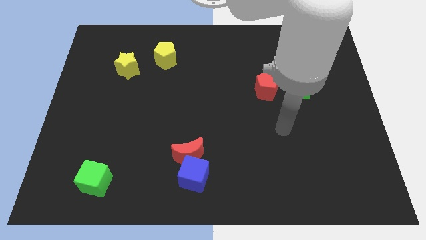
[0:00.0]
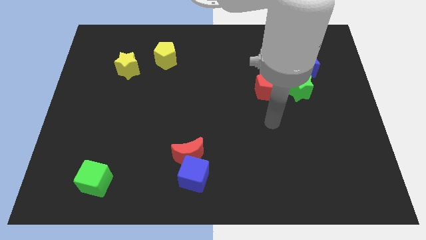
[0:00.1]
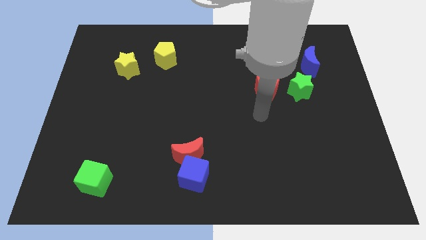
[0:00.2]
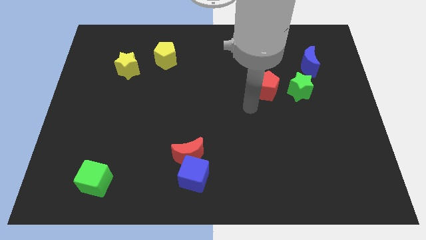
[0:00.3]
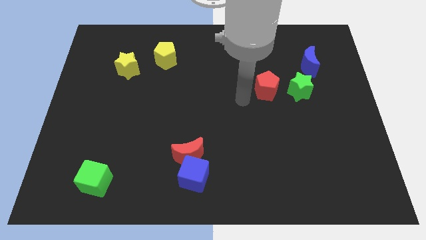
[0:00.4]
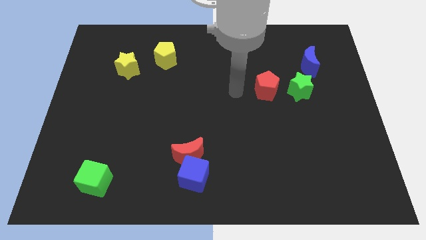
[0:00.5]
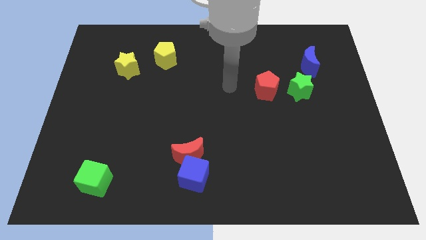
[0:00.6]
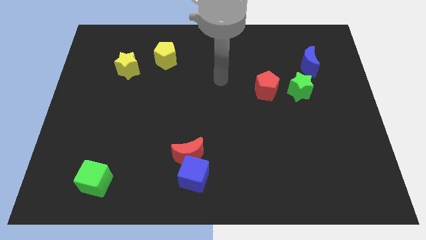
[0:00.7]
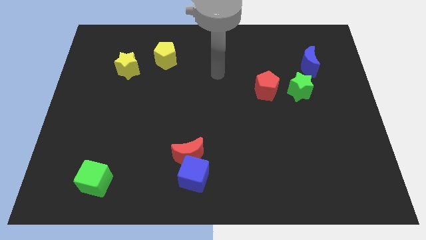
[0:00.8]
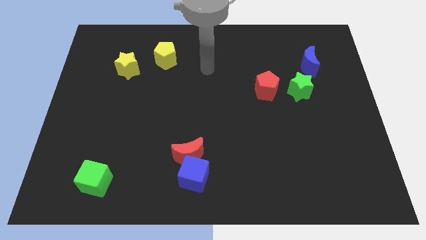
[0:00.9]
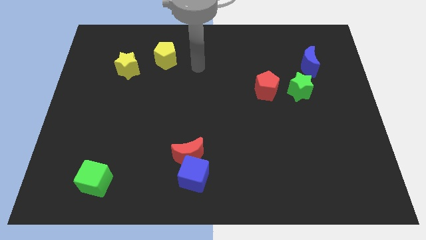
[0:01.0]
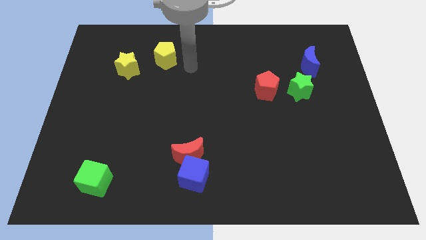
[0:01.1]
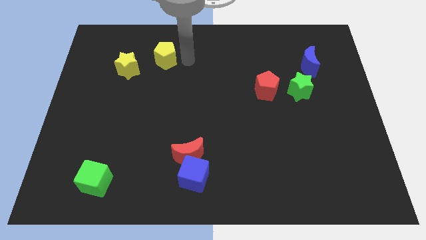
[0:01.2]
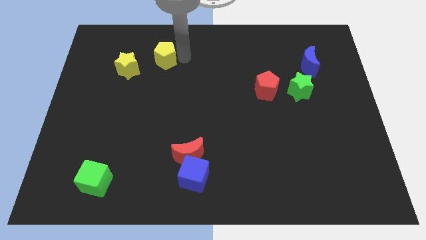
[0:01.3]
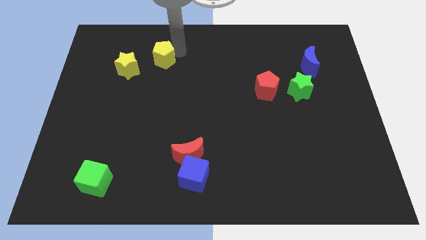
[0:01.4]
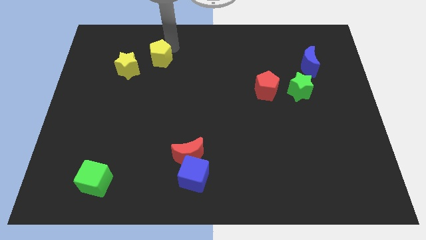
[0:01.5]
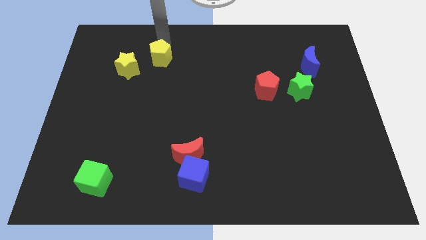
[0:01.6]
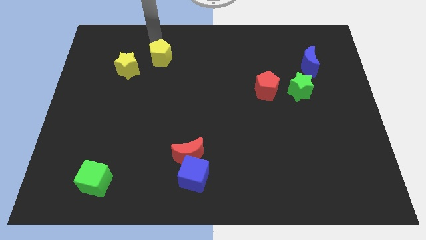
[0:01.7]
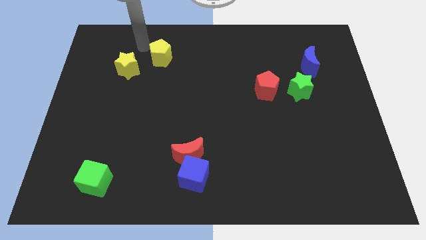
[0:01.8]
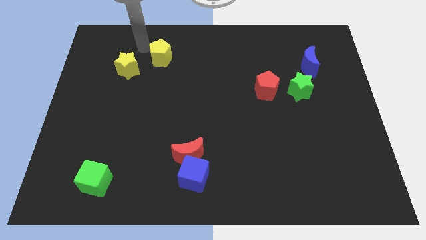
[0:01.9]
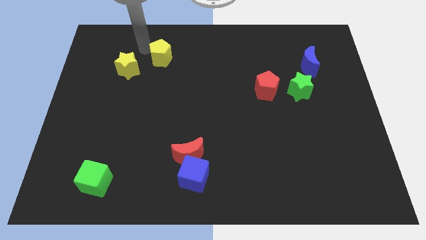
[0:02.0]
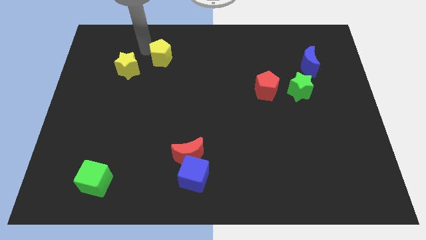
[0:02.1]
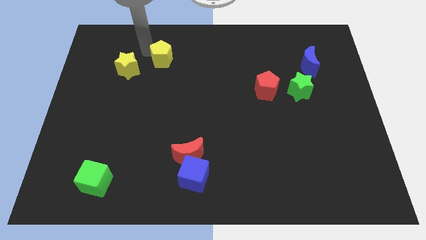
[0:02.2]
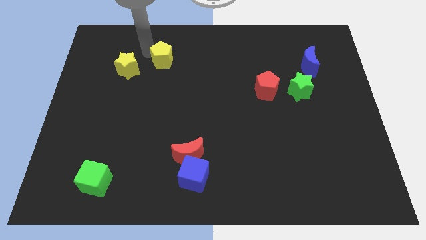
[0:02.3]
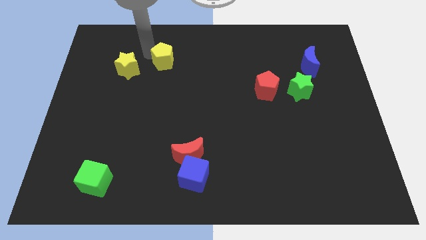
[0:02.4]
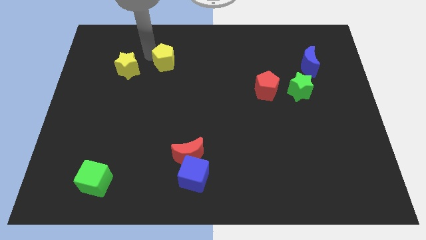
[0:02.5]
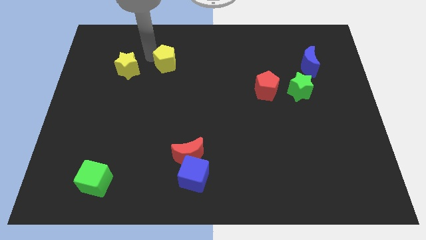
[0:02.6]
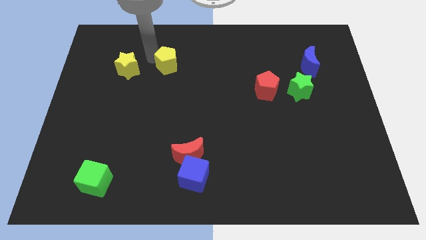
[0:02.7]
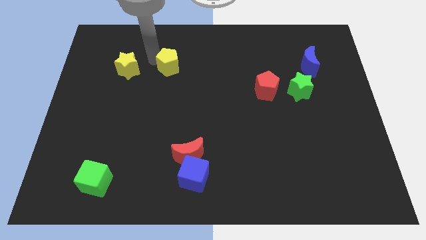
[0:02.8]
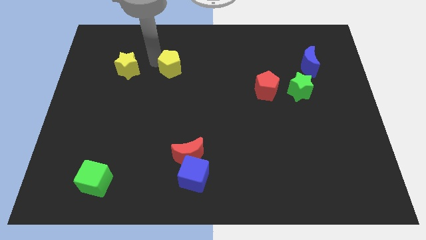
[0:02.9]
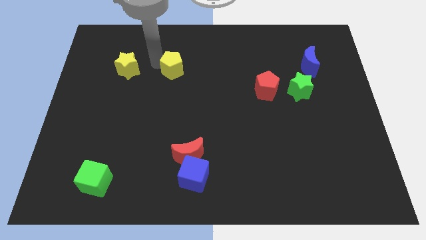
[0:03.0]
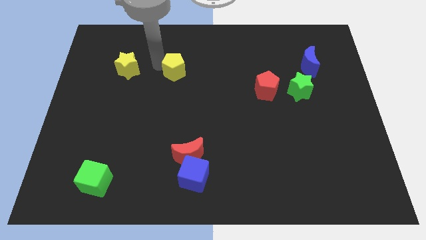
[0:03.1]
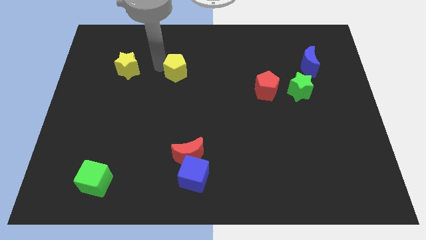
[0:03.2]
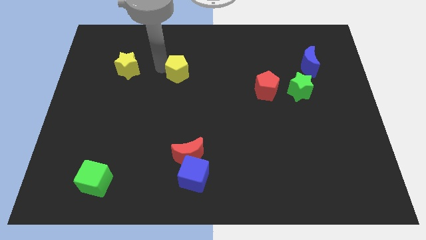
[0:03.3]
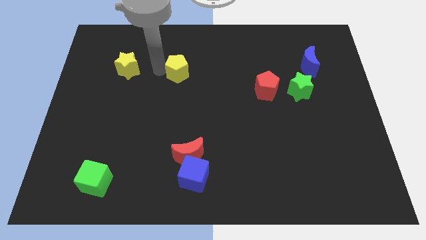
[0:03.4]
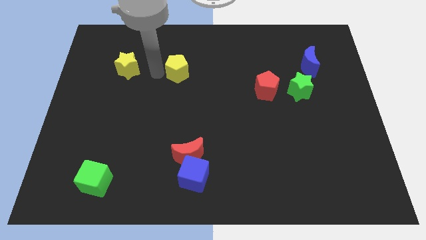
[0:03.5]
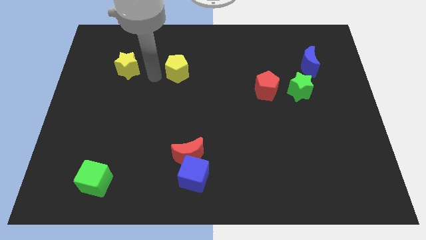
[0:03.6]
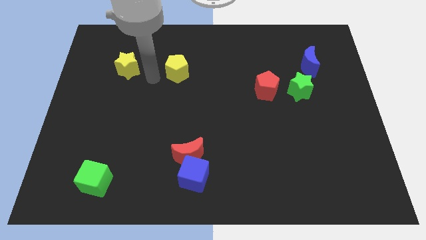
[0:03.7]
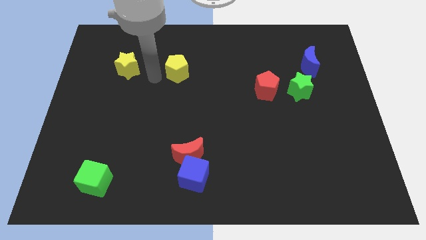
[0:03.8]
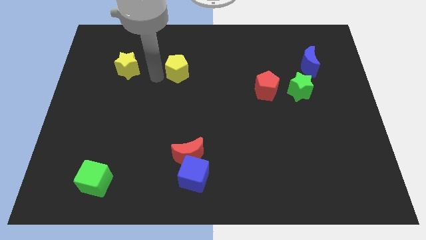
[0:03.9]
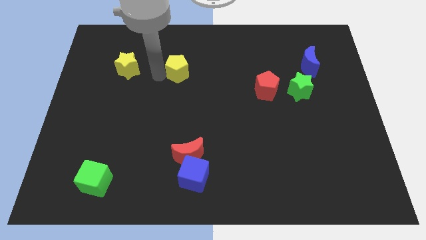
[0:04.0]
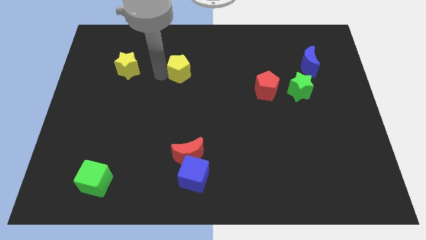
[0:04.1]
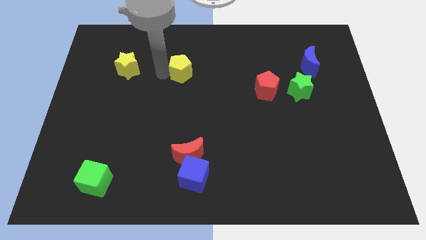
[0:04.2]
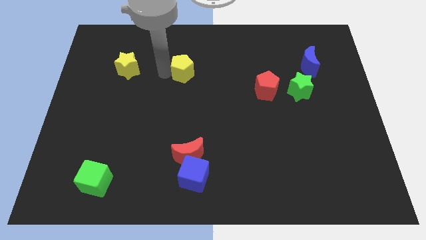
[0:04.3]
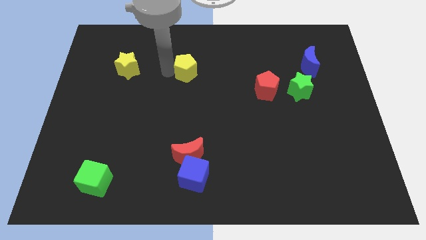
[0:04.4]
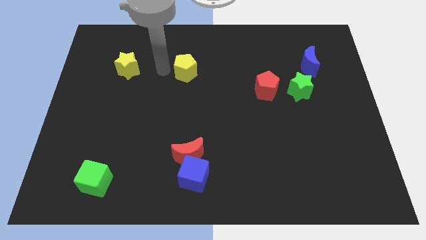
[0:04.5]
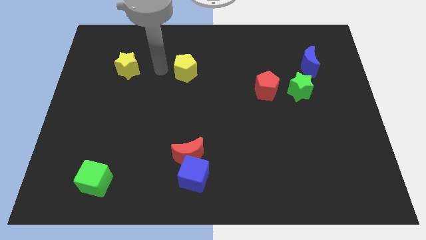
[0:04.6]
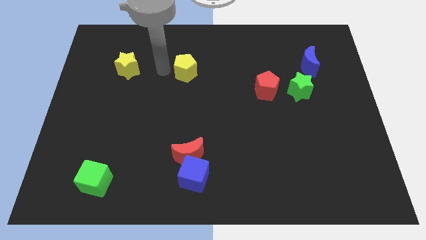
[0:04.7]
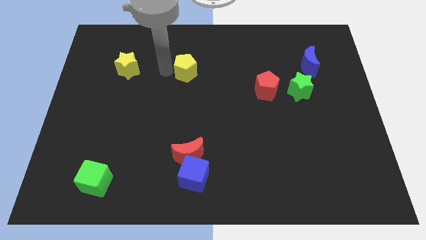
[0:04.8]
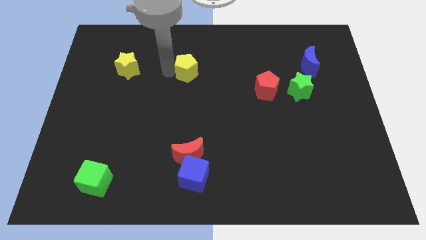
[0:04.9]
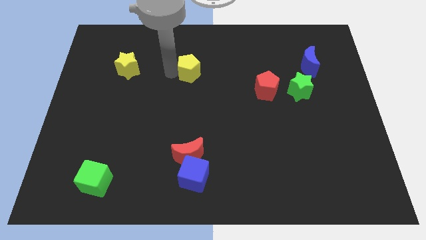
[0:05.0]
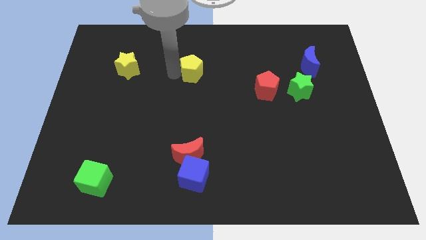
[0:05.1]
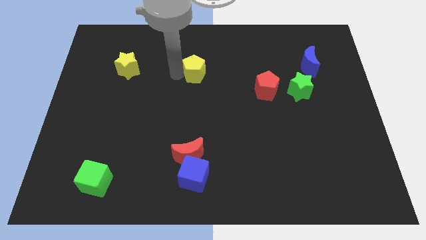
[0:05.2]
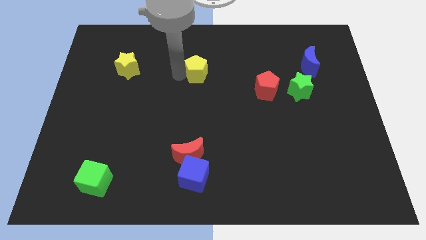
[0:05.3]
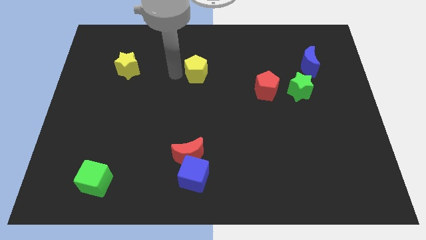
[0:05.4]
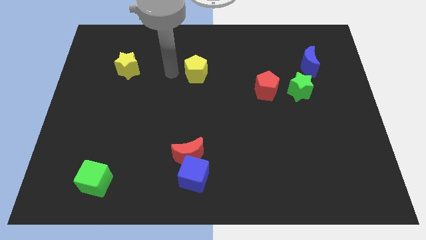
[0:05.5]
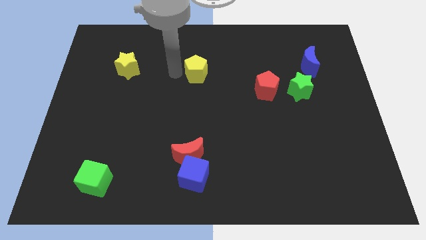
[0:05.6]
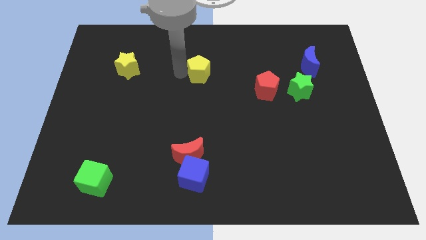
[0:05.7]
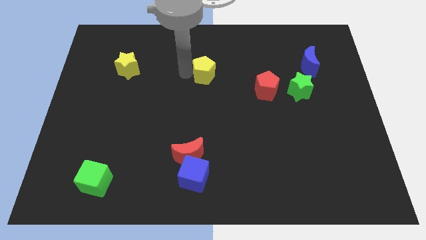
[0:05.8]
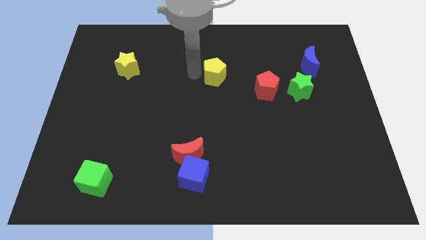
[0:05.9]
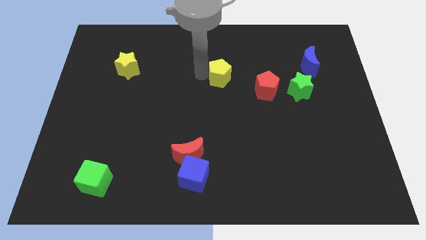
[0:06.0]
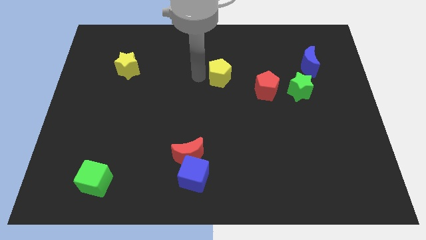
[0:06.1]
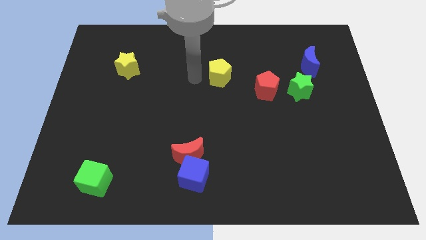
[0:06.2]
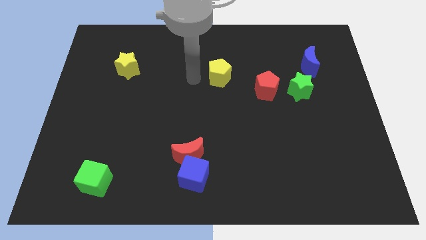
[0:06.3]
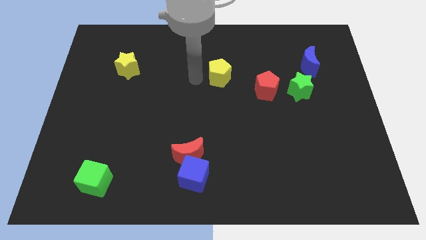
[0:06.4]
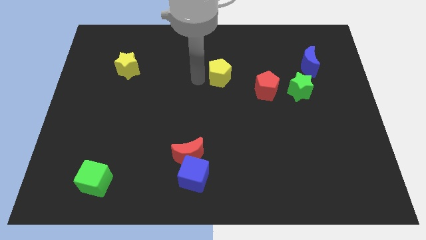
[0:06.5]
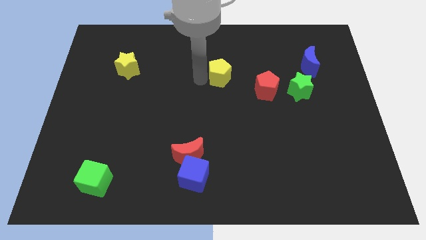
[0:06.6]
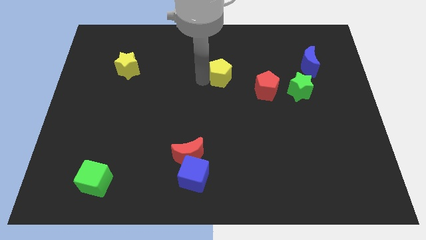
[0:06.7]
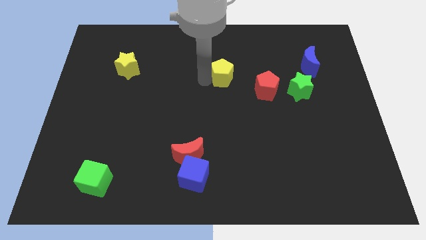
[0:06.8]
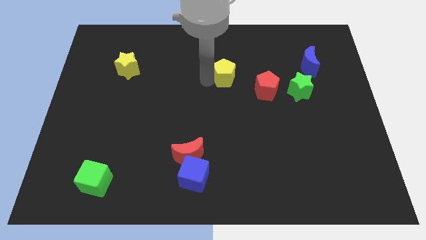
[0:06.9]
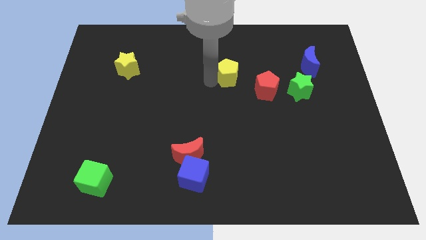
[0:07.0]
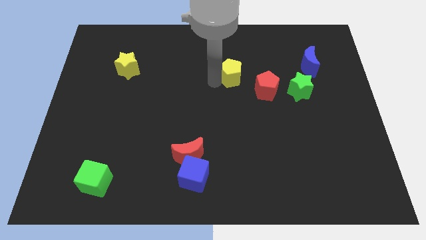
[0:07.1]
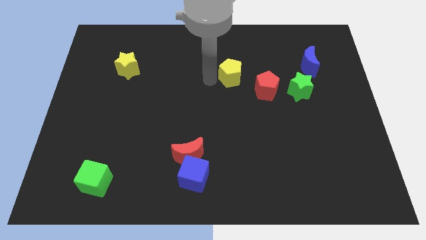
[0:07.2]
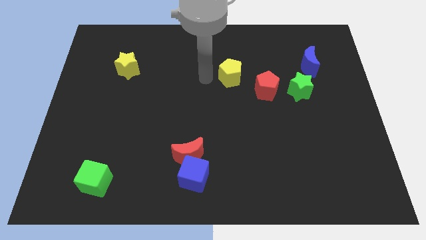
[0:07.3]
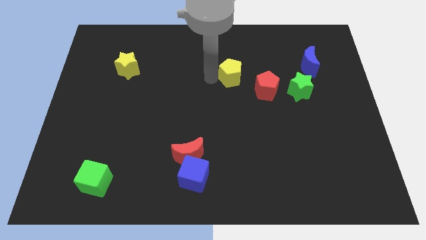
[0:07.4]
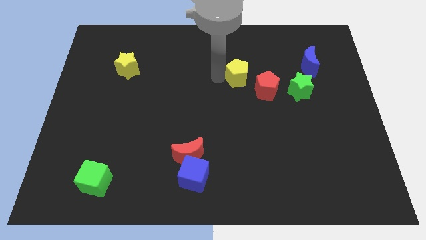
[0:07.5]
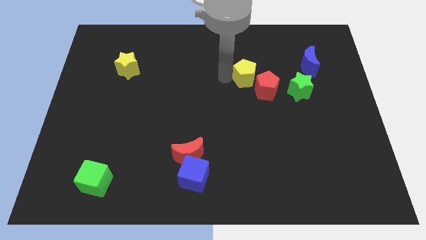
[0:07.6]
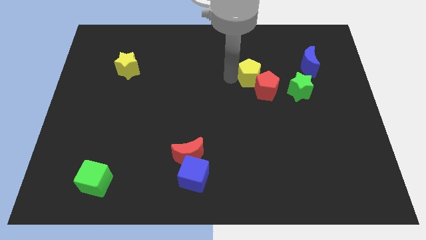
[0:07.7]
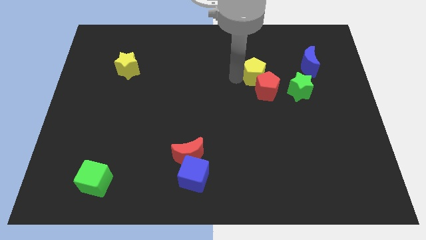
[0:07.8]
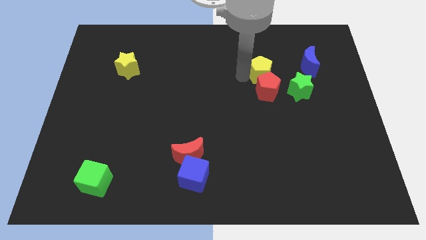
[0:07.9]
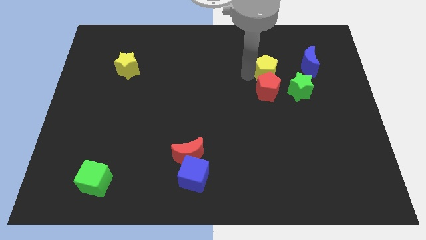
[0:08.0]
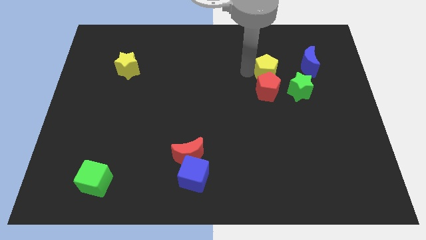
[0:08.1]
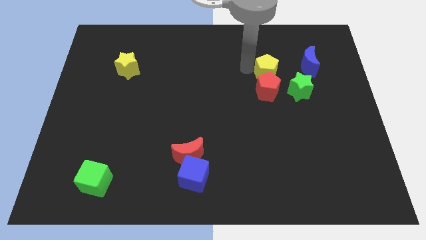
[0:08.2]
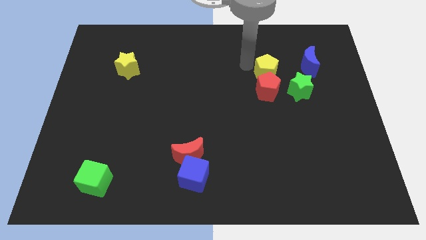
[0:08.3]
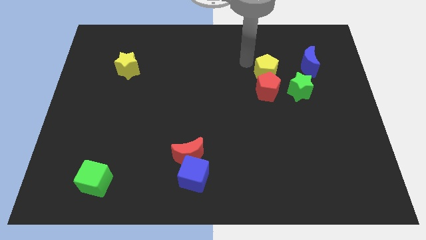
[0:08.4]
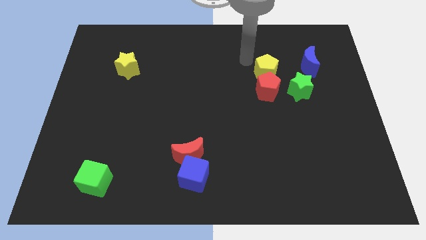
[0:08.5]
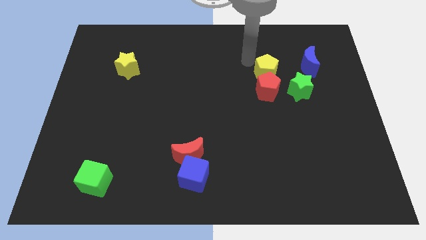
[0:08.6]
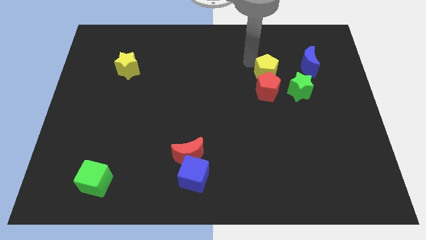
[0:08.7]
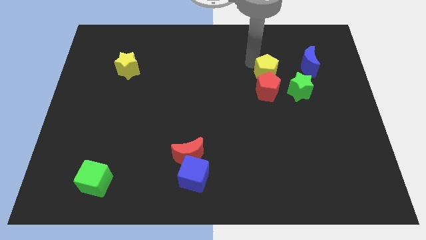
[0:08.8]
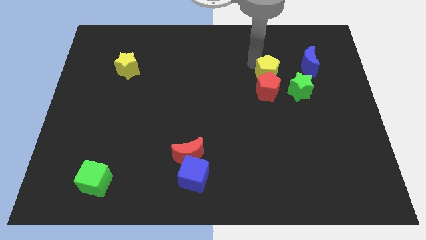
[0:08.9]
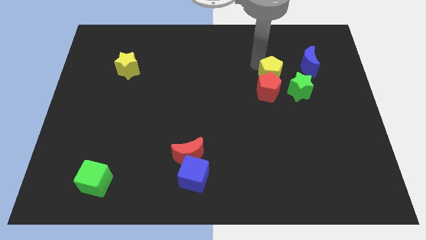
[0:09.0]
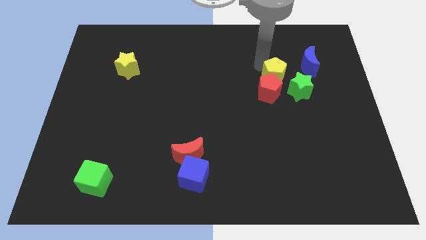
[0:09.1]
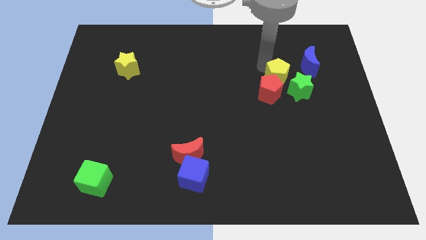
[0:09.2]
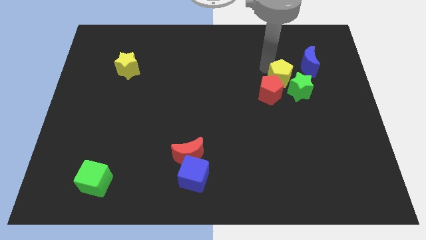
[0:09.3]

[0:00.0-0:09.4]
slide the yellow pentagon next to the green star
